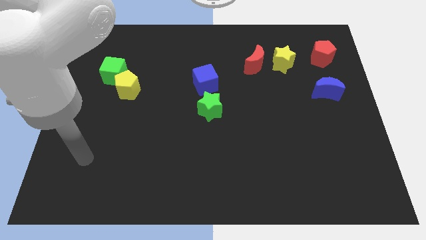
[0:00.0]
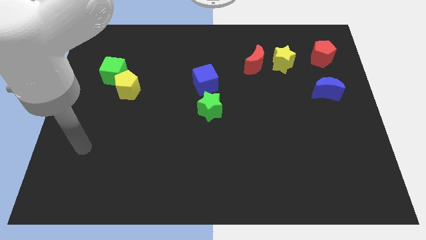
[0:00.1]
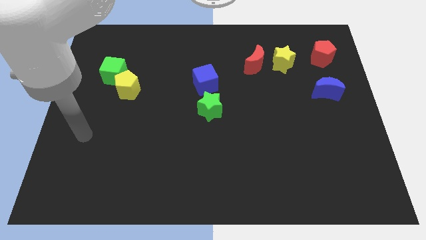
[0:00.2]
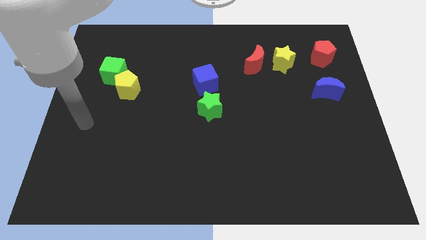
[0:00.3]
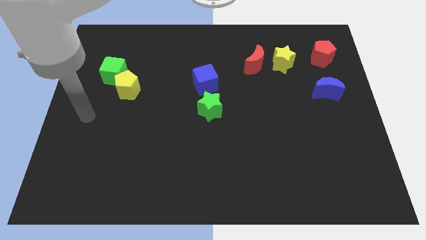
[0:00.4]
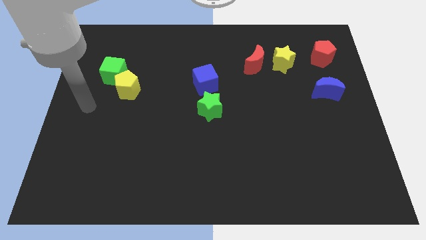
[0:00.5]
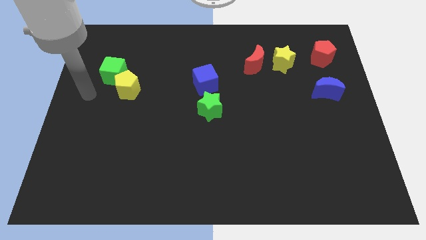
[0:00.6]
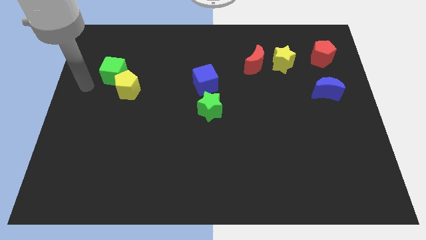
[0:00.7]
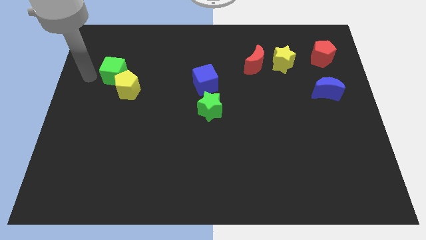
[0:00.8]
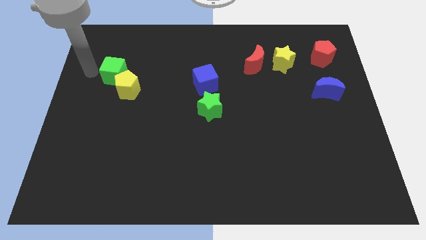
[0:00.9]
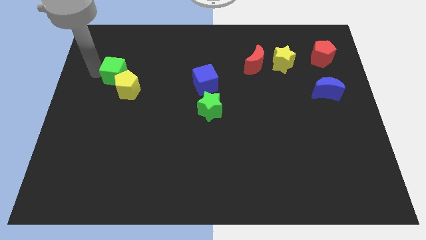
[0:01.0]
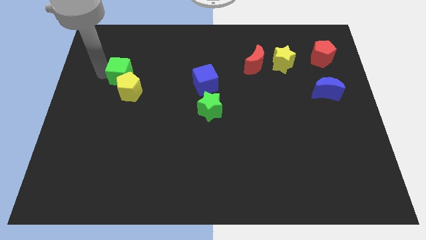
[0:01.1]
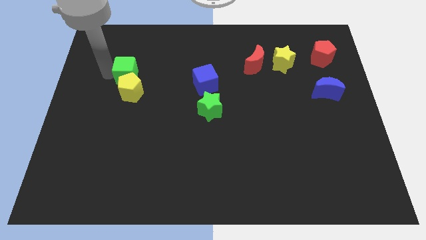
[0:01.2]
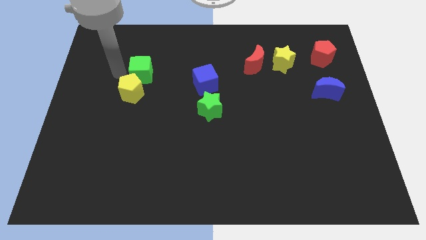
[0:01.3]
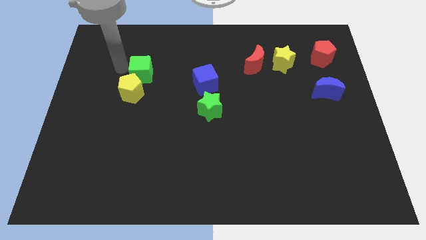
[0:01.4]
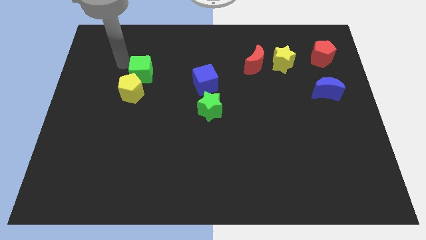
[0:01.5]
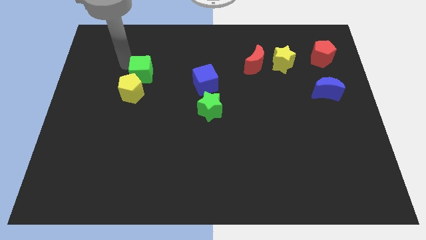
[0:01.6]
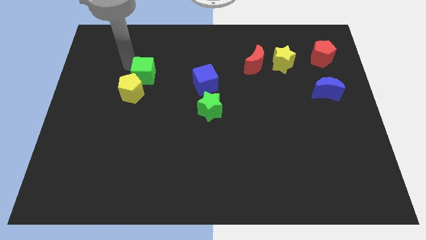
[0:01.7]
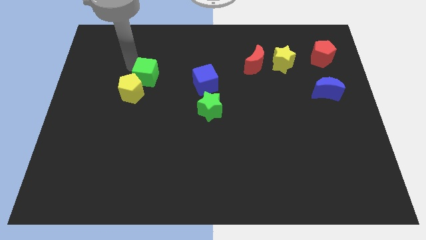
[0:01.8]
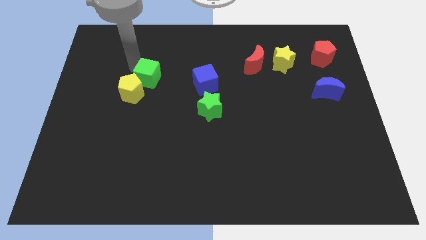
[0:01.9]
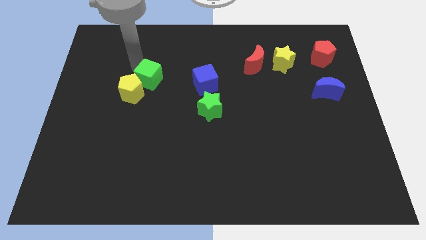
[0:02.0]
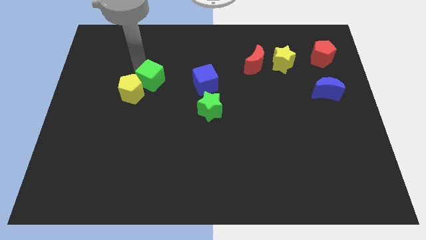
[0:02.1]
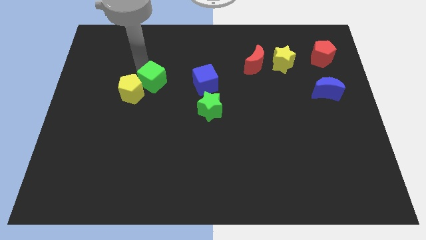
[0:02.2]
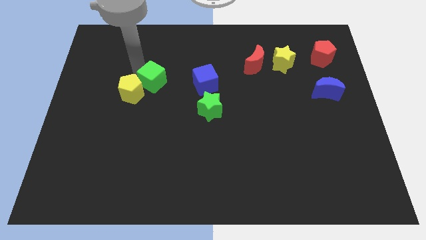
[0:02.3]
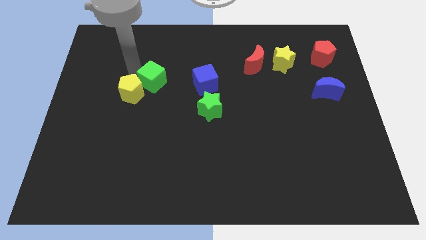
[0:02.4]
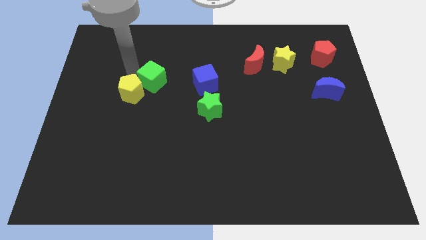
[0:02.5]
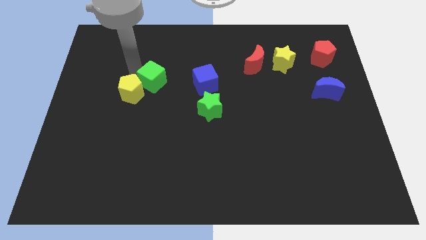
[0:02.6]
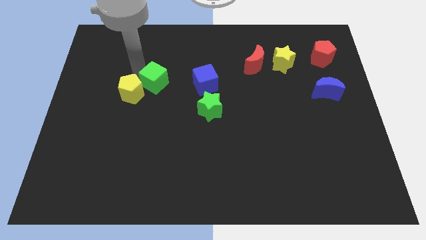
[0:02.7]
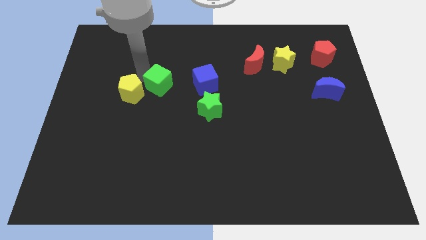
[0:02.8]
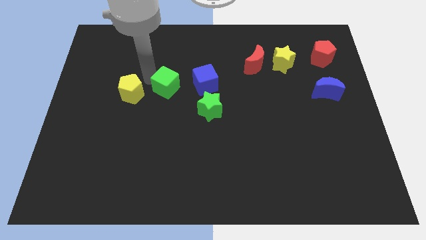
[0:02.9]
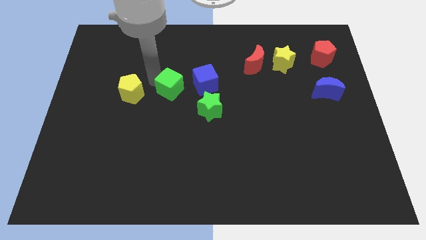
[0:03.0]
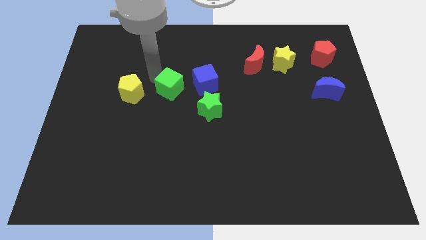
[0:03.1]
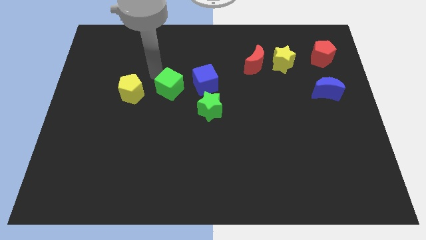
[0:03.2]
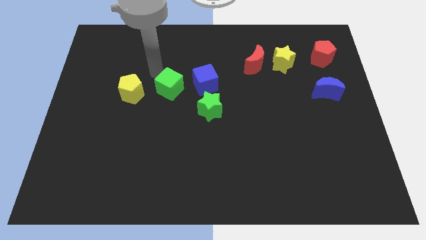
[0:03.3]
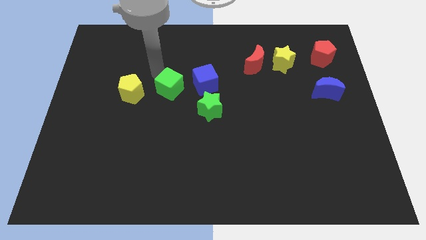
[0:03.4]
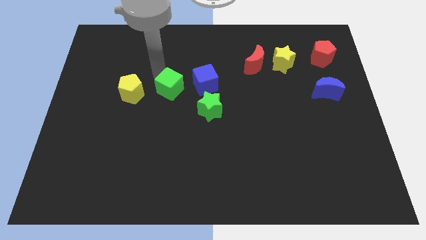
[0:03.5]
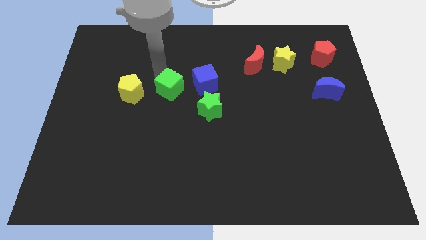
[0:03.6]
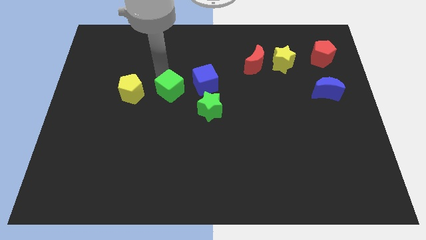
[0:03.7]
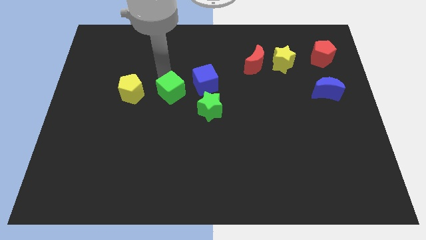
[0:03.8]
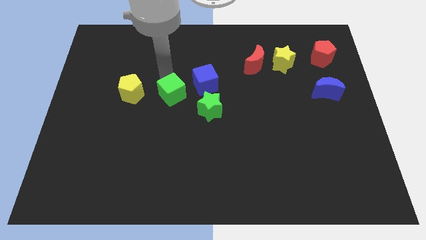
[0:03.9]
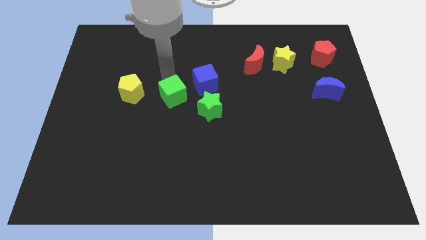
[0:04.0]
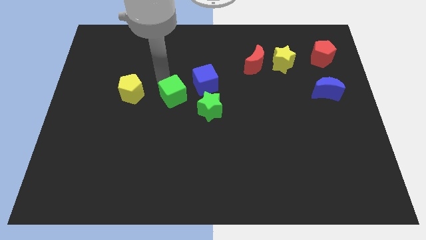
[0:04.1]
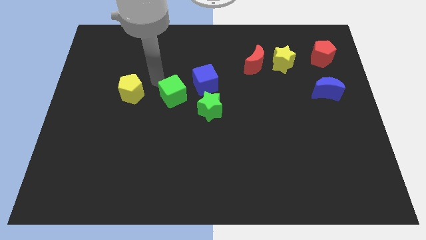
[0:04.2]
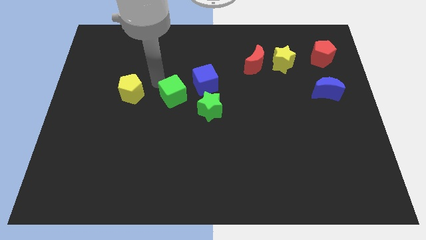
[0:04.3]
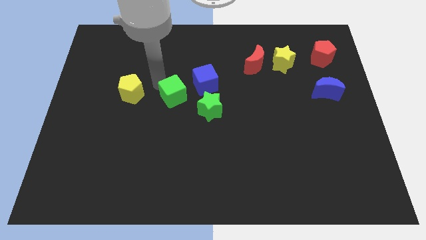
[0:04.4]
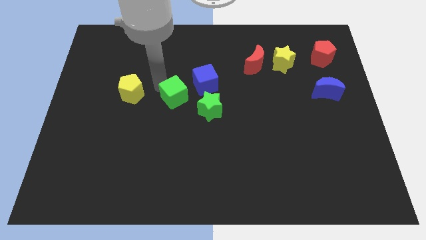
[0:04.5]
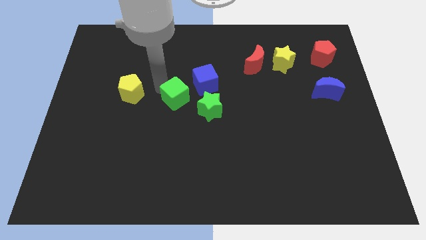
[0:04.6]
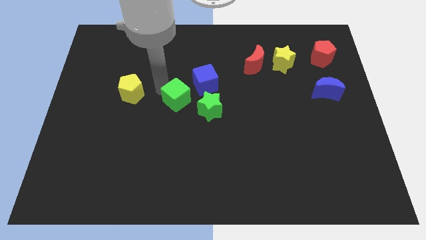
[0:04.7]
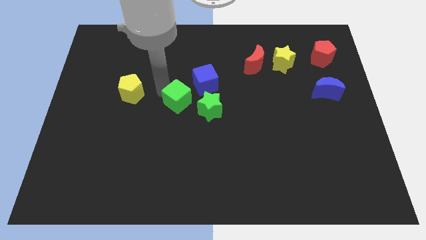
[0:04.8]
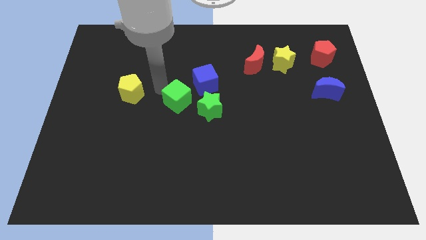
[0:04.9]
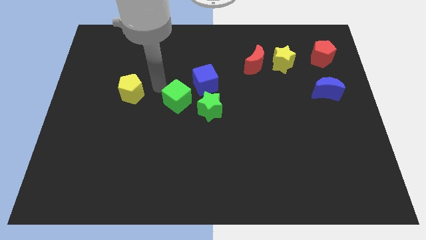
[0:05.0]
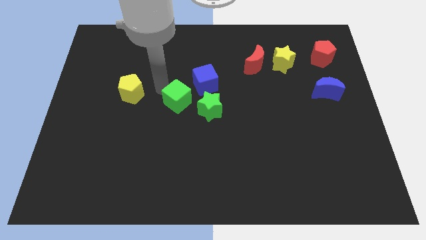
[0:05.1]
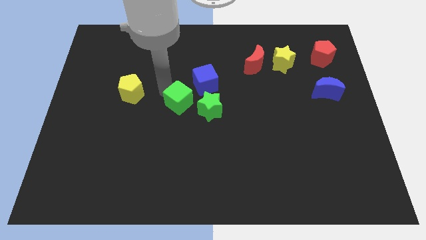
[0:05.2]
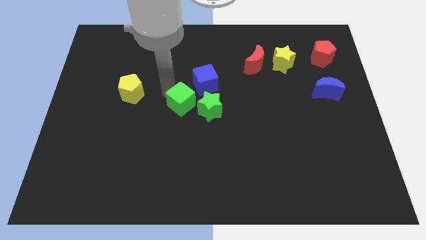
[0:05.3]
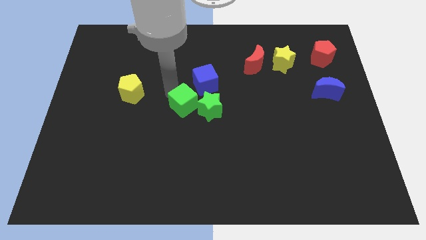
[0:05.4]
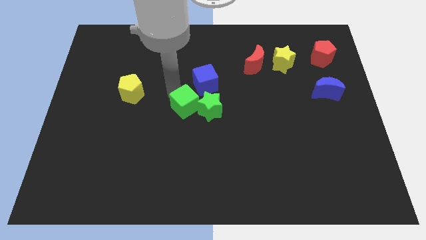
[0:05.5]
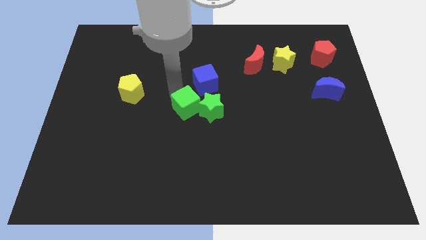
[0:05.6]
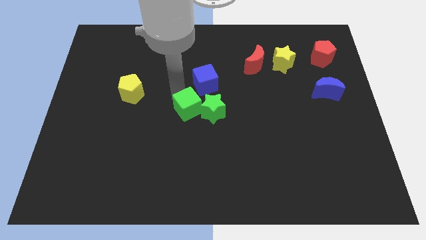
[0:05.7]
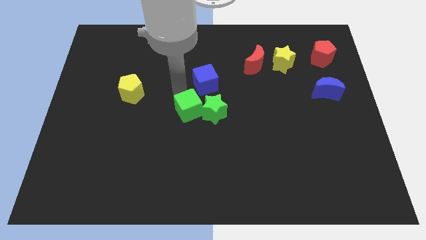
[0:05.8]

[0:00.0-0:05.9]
move the green cube diagonally down and to the right

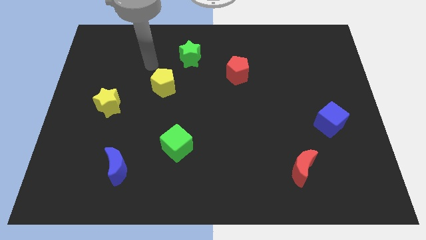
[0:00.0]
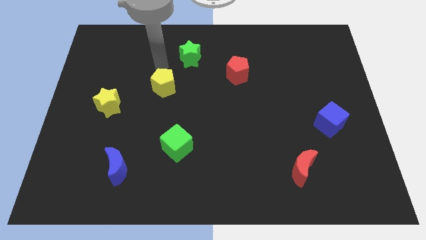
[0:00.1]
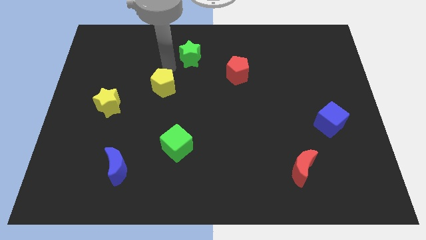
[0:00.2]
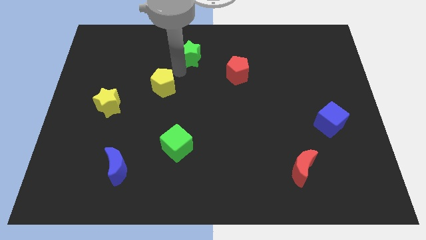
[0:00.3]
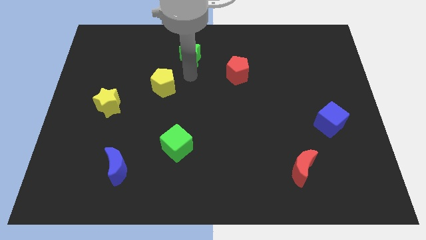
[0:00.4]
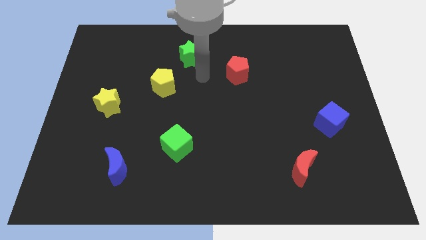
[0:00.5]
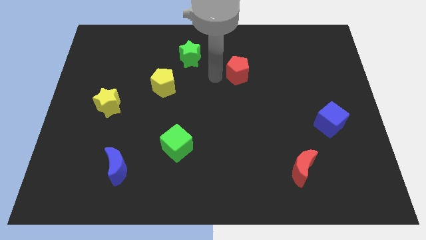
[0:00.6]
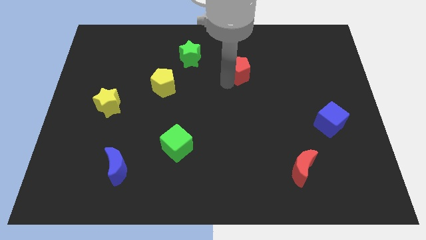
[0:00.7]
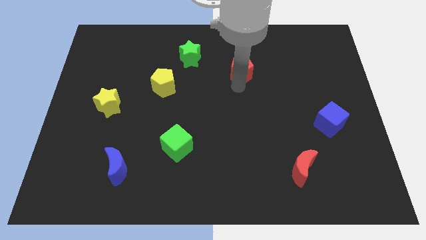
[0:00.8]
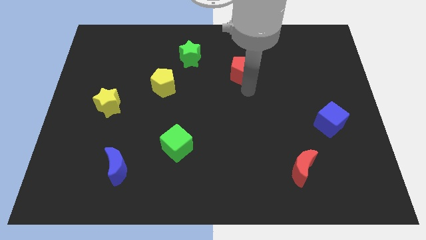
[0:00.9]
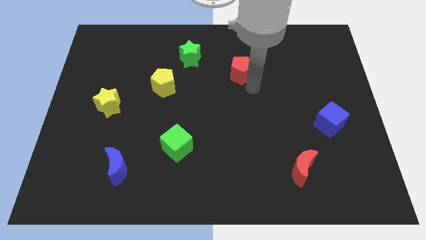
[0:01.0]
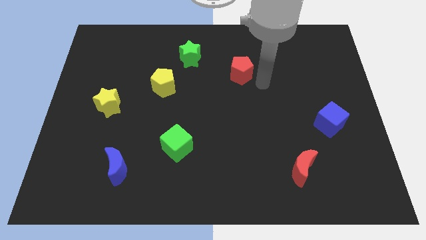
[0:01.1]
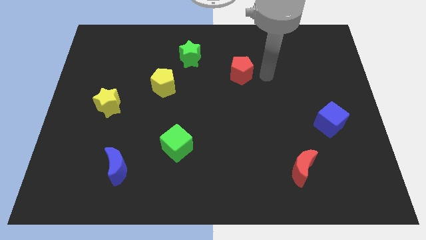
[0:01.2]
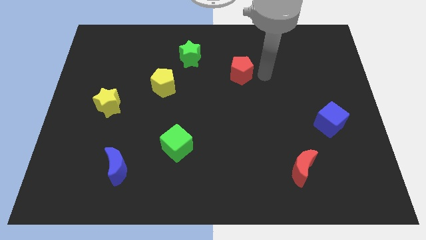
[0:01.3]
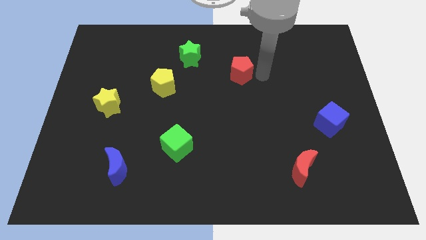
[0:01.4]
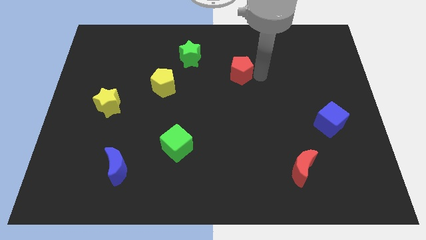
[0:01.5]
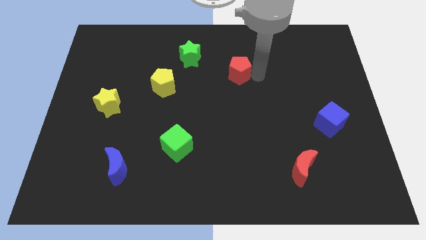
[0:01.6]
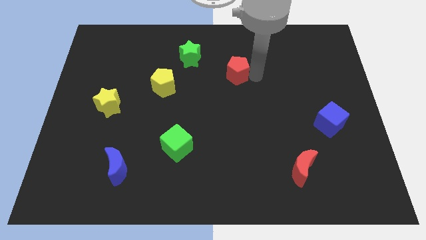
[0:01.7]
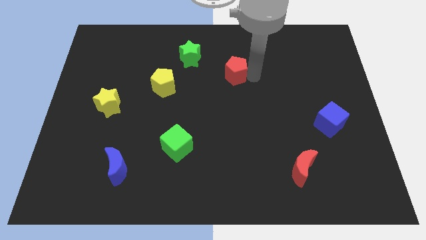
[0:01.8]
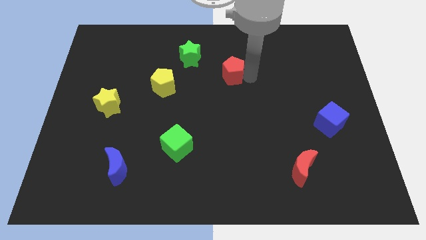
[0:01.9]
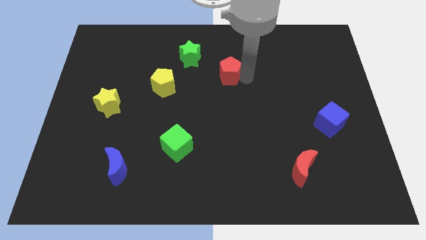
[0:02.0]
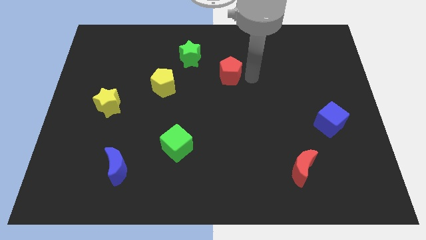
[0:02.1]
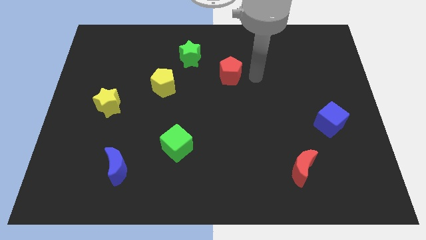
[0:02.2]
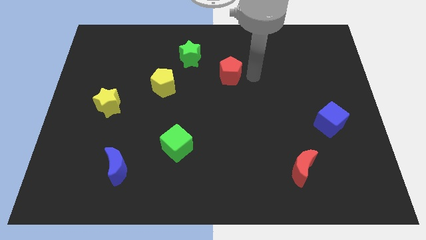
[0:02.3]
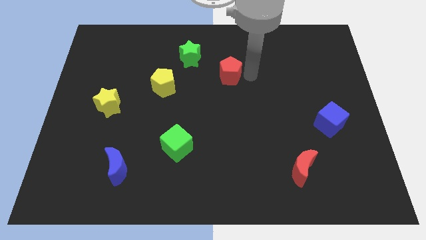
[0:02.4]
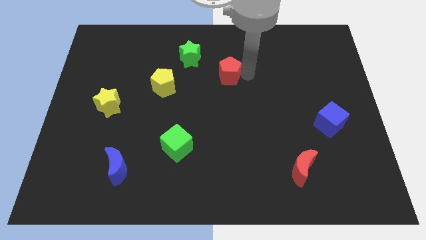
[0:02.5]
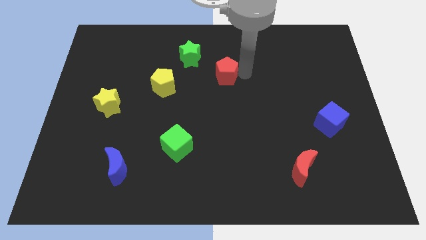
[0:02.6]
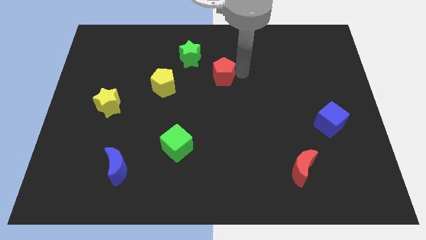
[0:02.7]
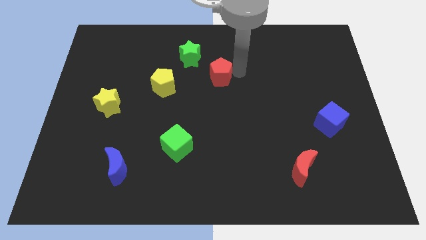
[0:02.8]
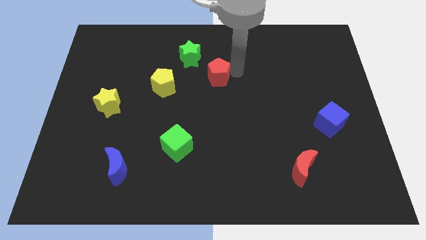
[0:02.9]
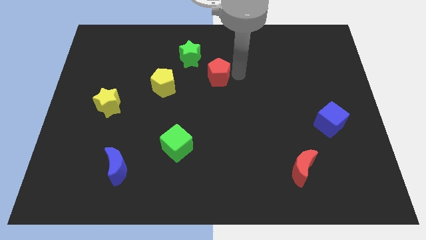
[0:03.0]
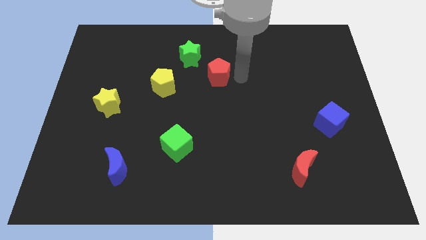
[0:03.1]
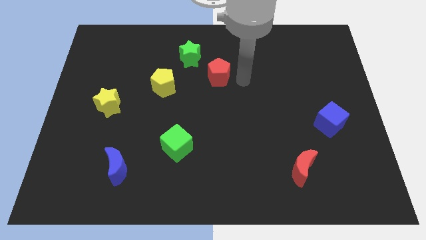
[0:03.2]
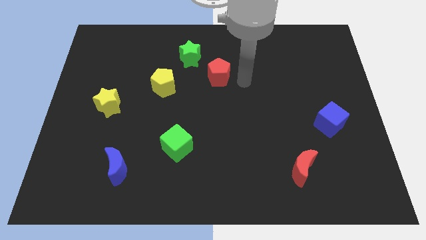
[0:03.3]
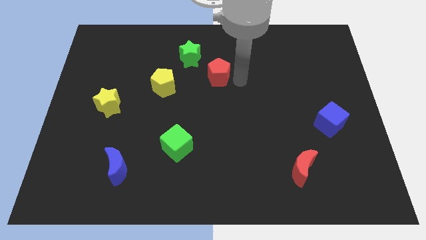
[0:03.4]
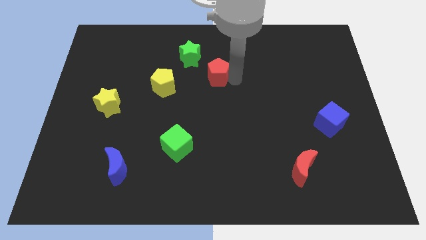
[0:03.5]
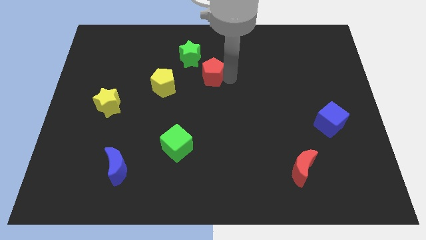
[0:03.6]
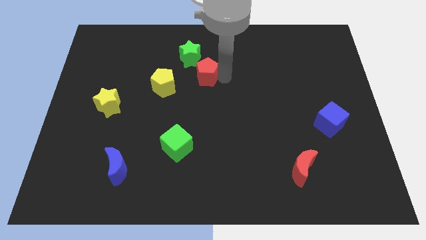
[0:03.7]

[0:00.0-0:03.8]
slide the red pentagon a little to the left
